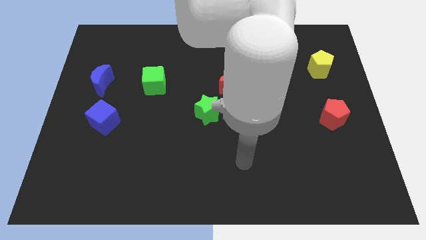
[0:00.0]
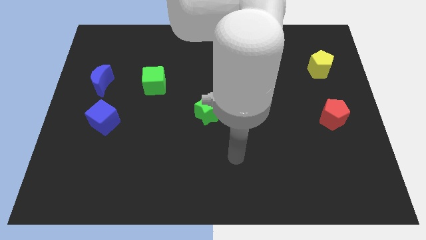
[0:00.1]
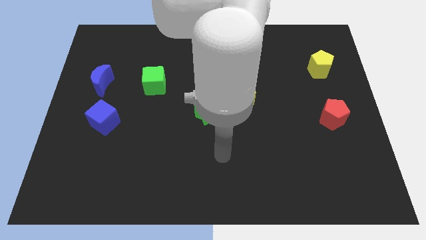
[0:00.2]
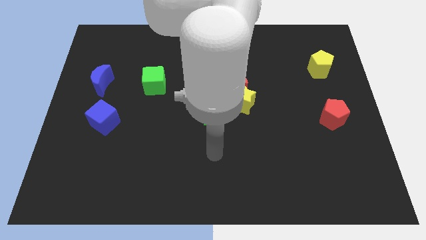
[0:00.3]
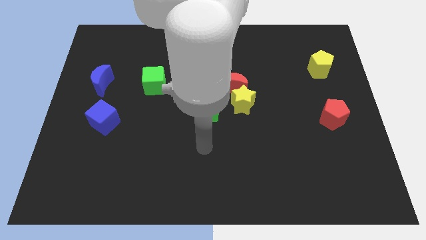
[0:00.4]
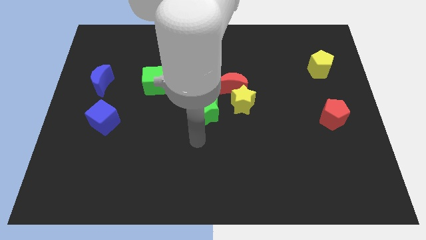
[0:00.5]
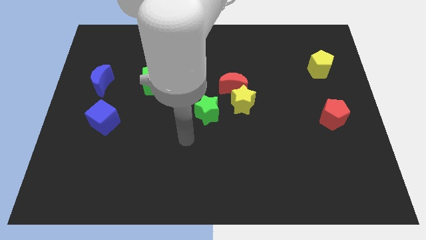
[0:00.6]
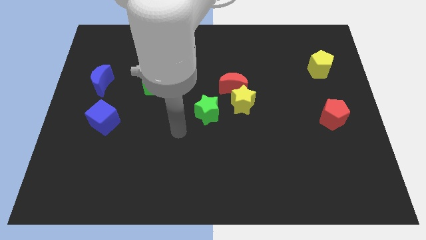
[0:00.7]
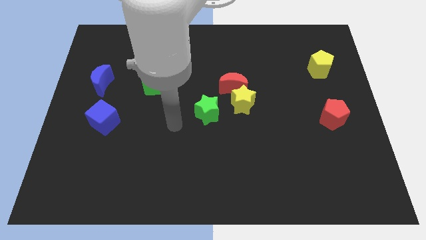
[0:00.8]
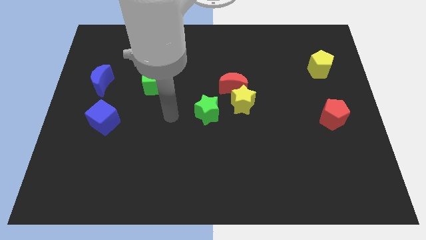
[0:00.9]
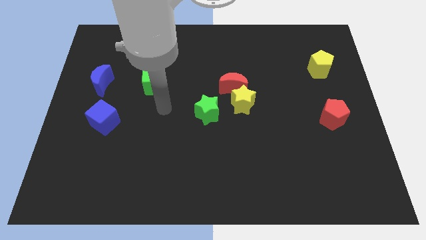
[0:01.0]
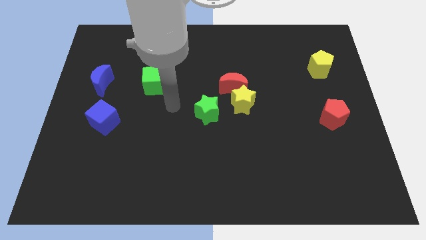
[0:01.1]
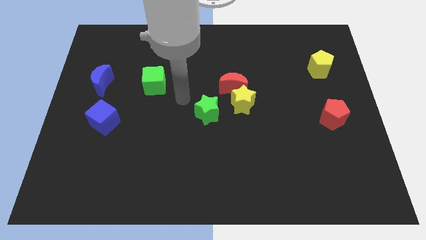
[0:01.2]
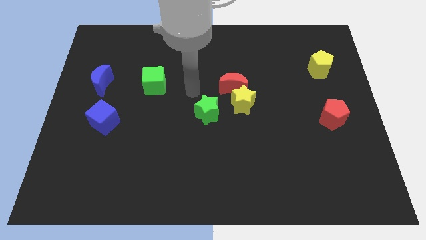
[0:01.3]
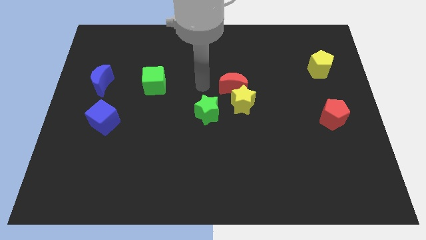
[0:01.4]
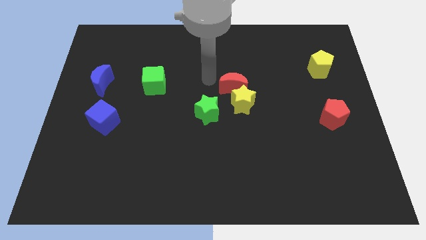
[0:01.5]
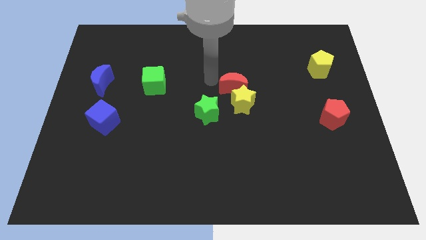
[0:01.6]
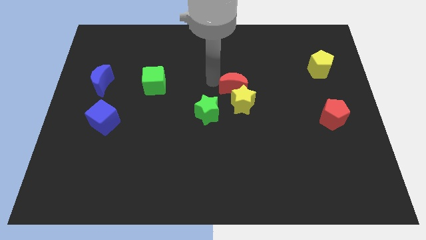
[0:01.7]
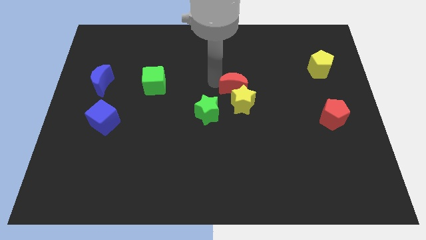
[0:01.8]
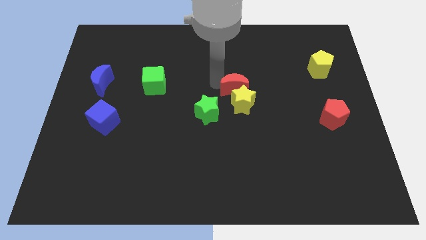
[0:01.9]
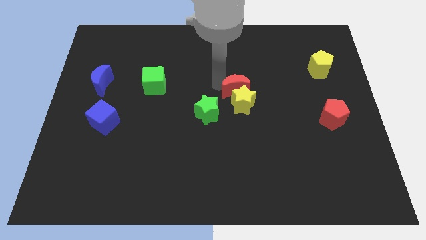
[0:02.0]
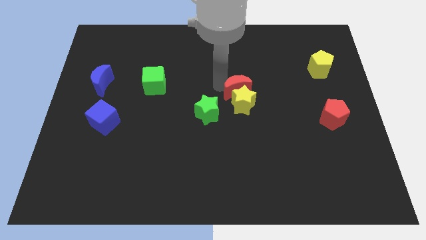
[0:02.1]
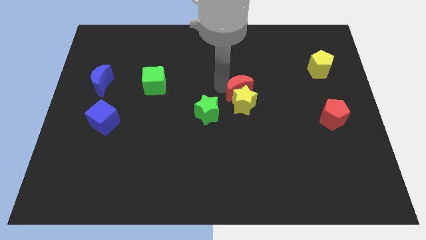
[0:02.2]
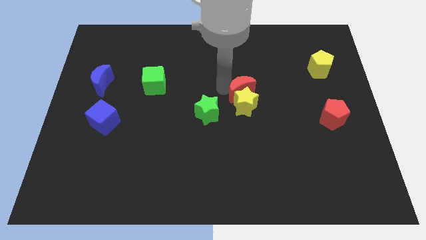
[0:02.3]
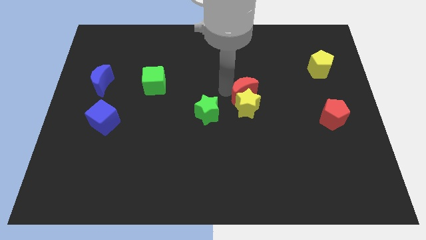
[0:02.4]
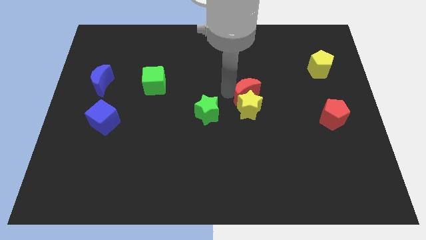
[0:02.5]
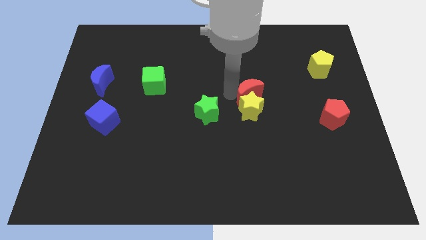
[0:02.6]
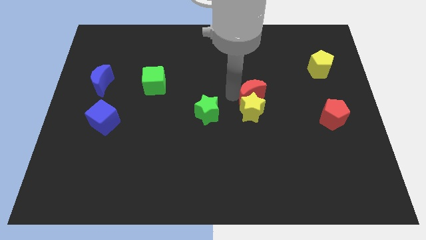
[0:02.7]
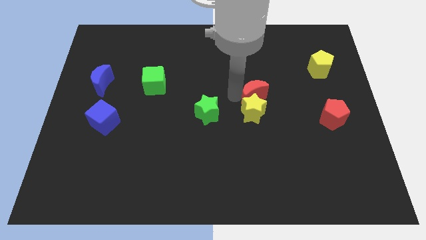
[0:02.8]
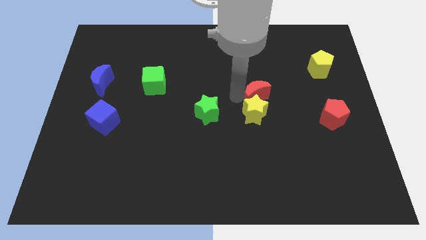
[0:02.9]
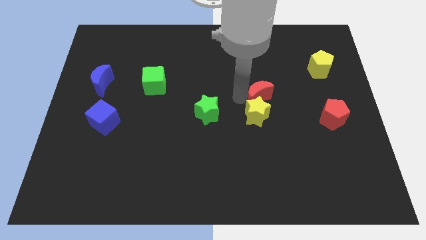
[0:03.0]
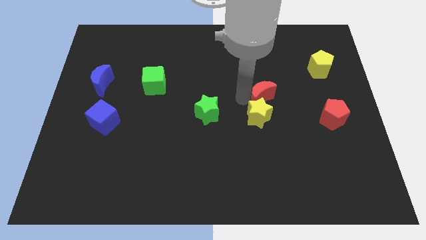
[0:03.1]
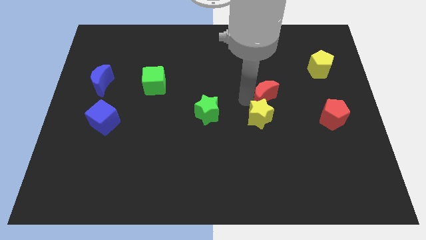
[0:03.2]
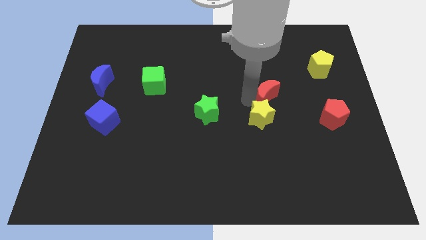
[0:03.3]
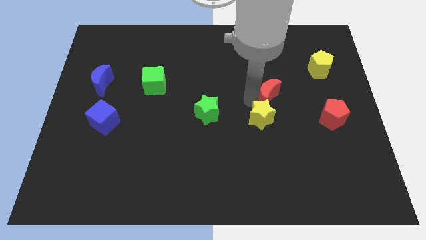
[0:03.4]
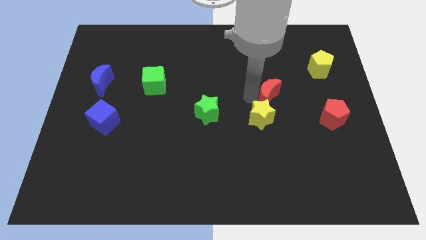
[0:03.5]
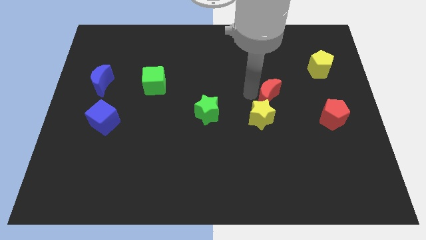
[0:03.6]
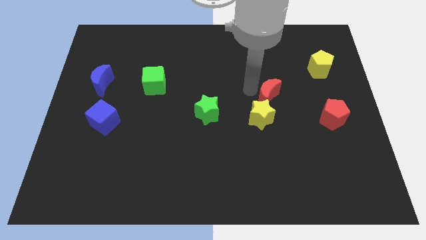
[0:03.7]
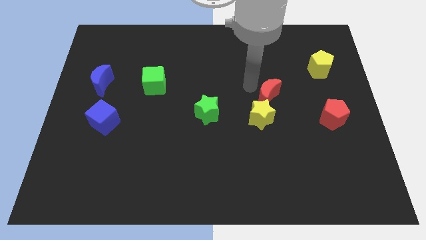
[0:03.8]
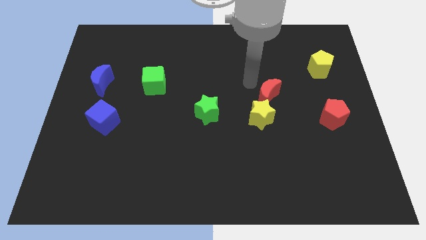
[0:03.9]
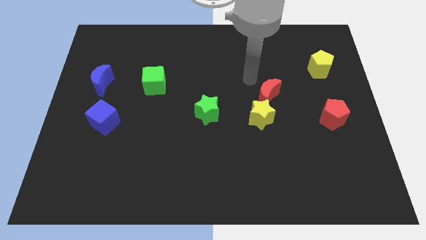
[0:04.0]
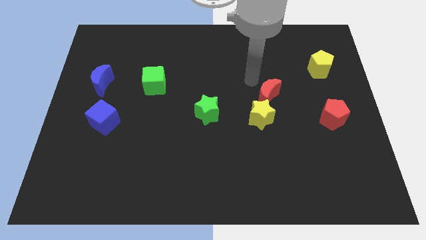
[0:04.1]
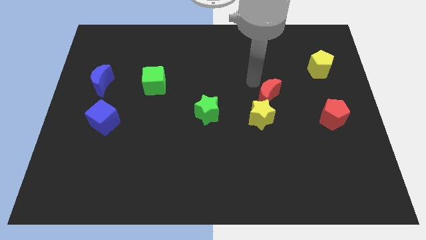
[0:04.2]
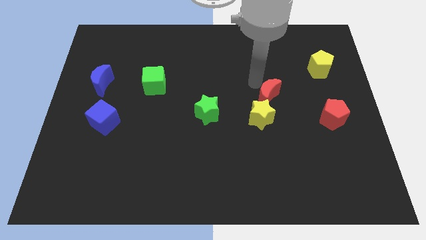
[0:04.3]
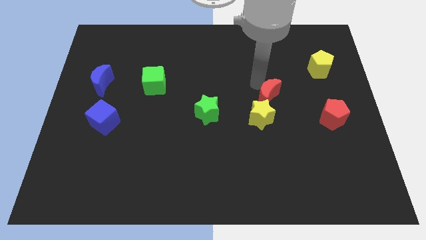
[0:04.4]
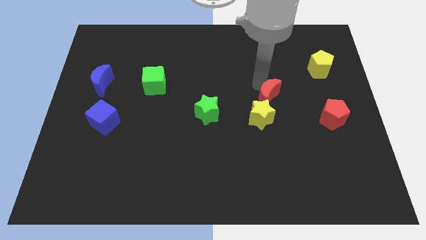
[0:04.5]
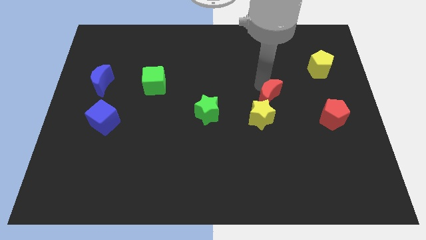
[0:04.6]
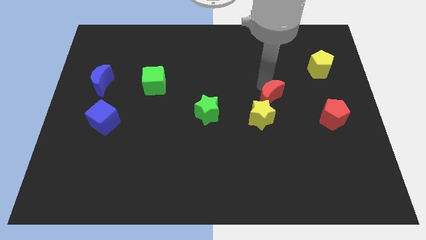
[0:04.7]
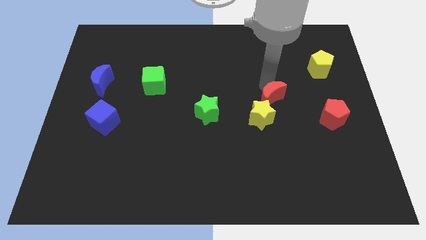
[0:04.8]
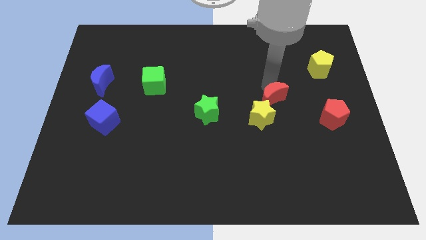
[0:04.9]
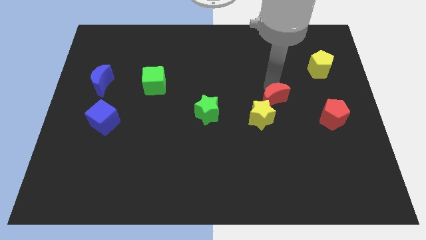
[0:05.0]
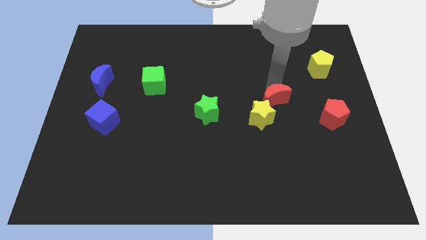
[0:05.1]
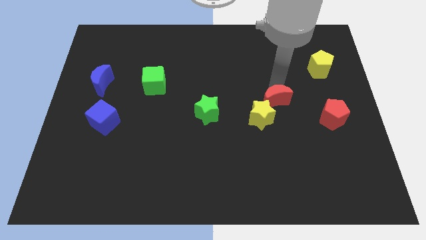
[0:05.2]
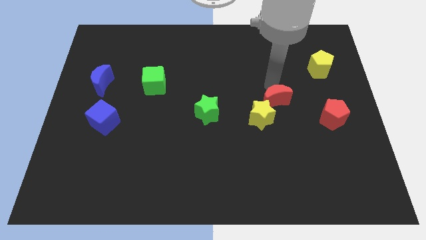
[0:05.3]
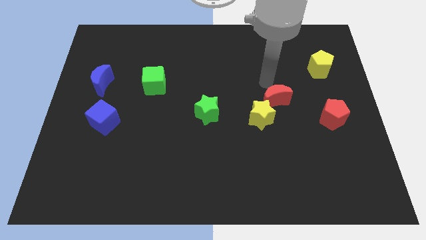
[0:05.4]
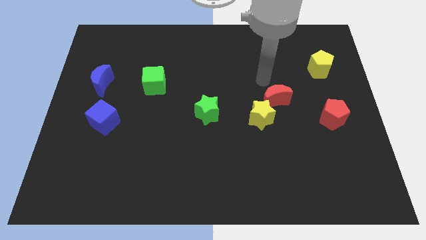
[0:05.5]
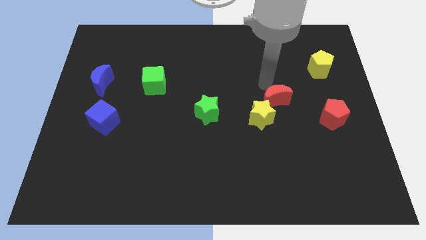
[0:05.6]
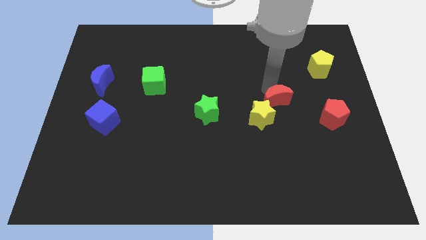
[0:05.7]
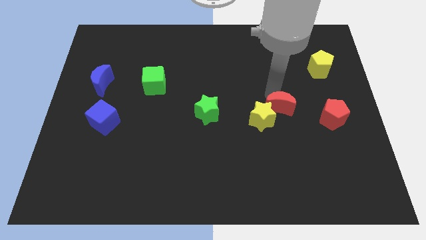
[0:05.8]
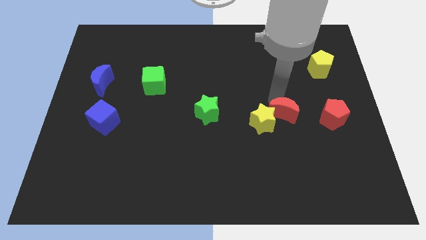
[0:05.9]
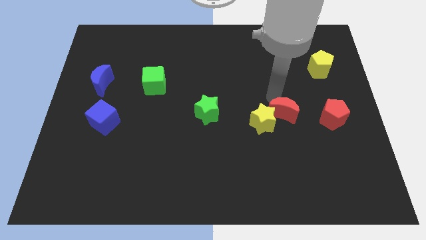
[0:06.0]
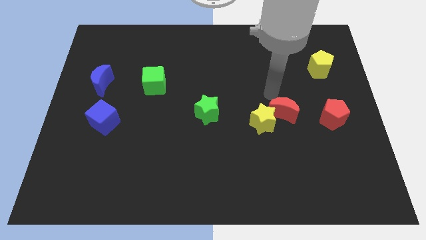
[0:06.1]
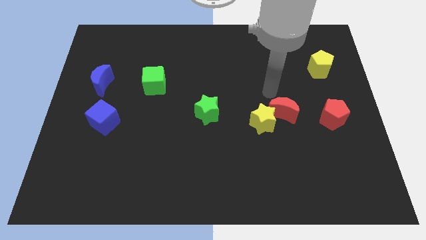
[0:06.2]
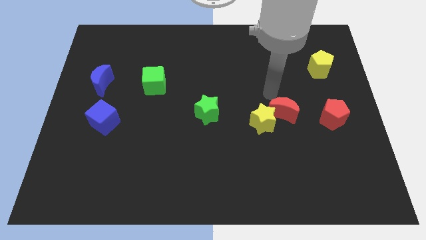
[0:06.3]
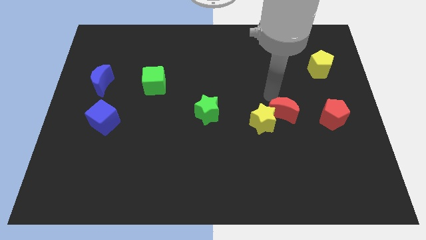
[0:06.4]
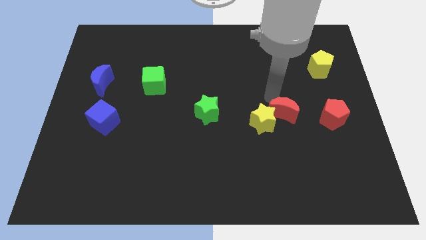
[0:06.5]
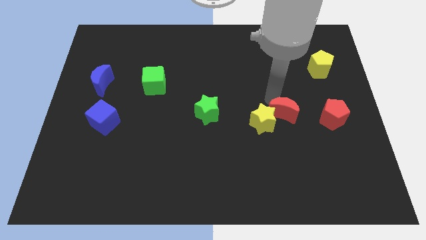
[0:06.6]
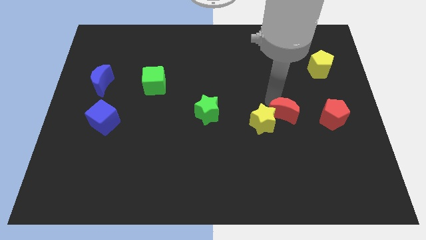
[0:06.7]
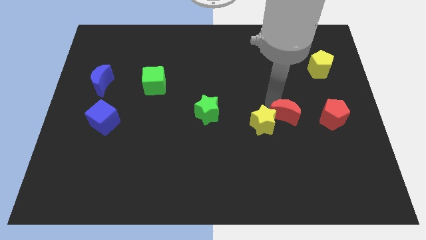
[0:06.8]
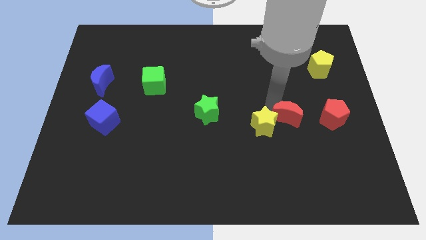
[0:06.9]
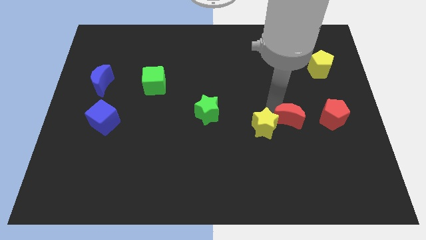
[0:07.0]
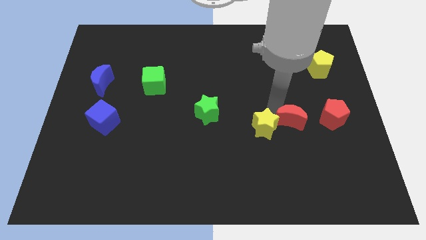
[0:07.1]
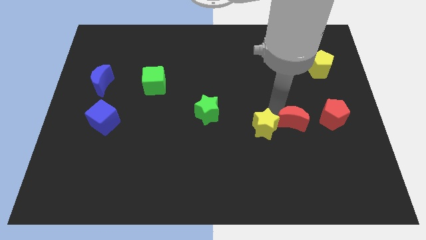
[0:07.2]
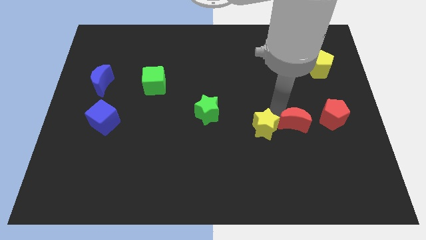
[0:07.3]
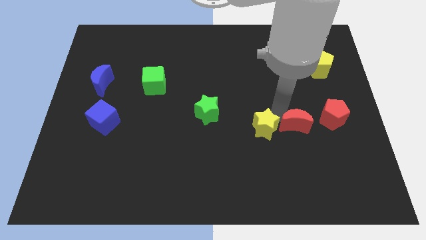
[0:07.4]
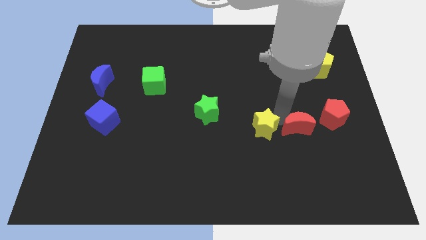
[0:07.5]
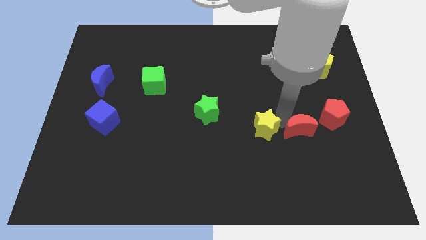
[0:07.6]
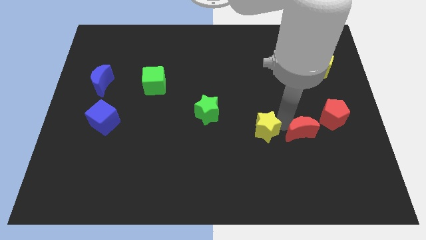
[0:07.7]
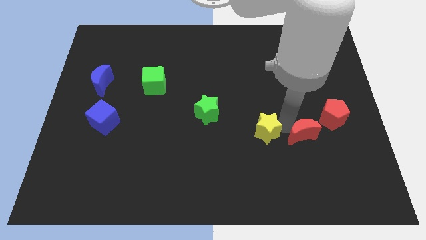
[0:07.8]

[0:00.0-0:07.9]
push the red moon diagonally down and to the right
